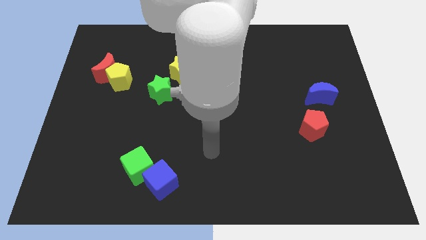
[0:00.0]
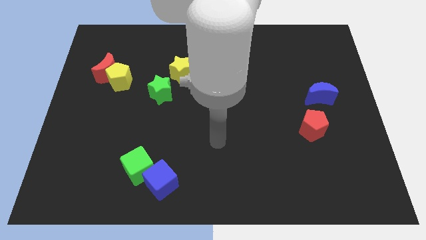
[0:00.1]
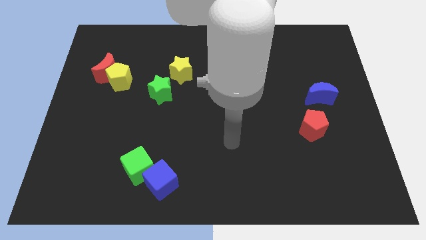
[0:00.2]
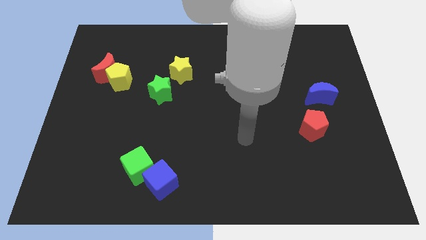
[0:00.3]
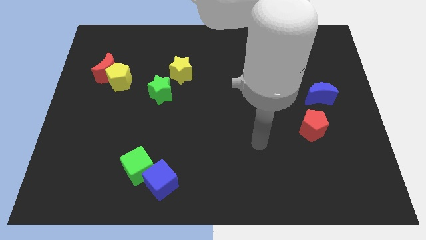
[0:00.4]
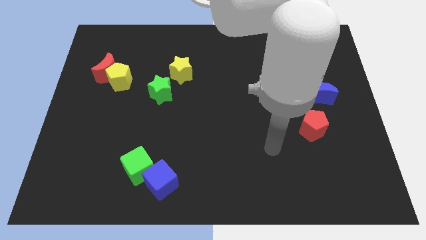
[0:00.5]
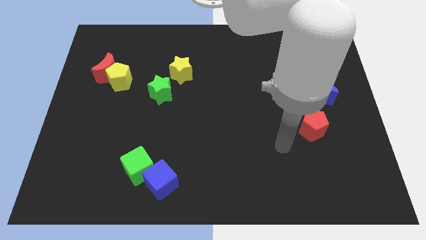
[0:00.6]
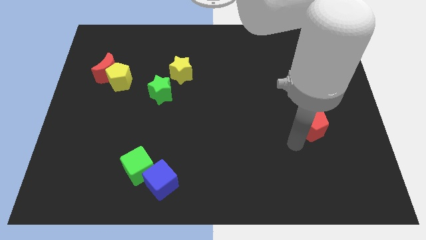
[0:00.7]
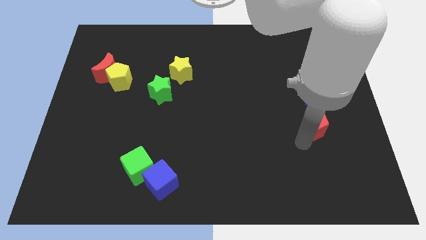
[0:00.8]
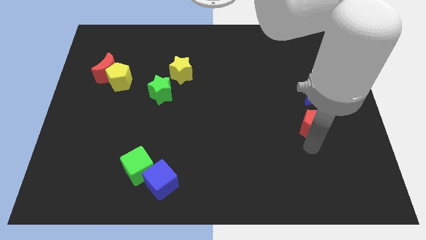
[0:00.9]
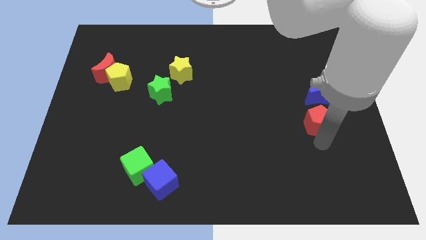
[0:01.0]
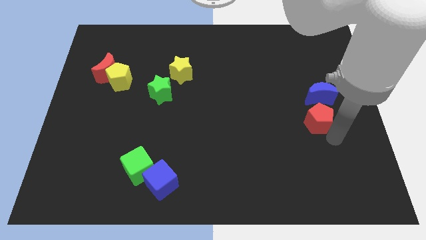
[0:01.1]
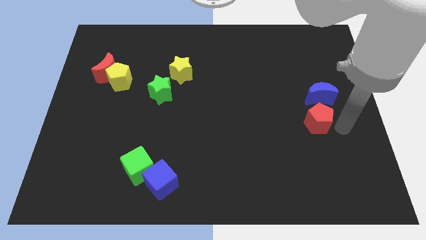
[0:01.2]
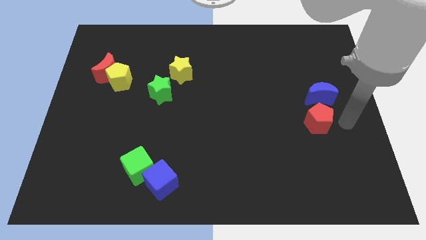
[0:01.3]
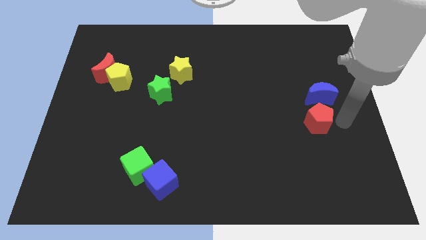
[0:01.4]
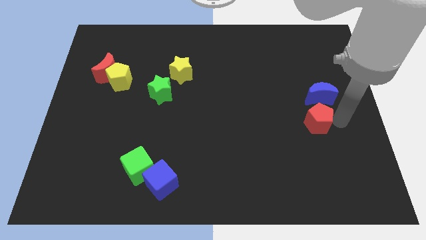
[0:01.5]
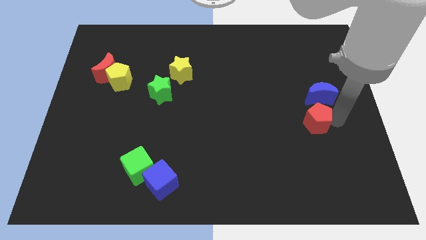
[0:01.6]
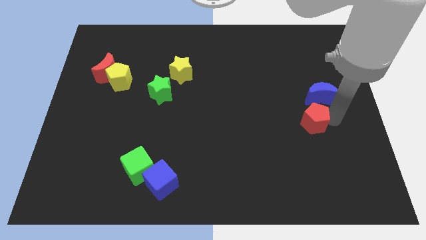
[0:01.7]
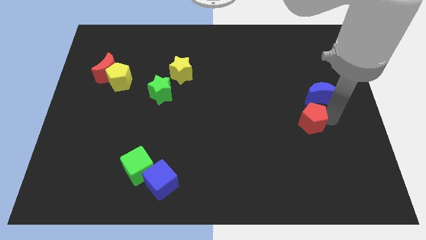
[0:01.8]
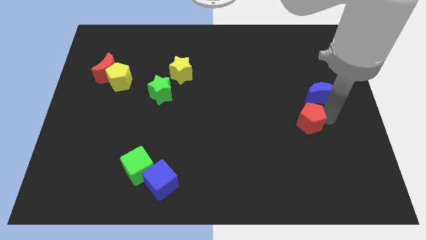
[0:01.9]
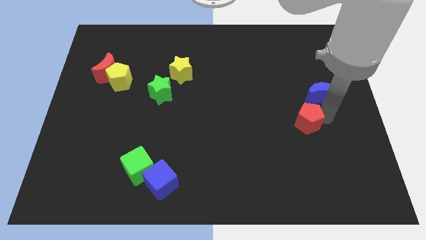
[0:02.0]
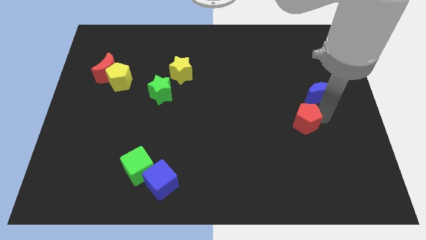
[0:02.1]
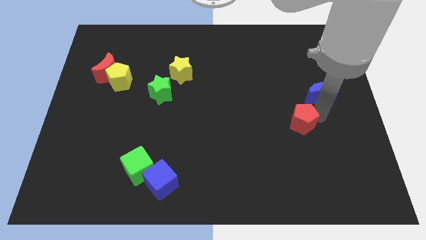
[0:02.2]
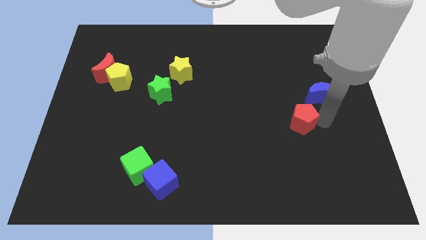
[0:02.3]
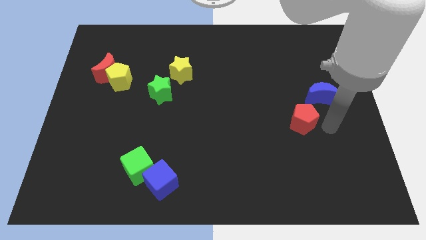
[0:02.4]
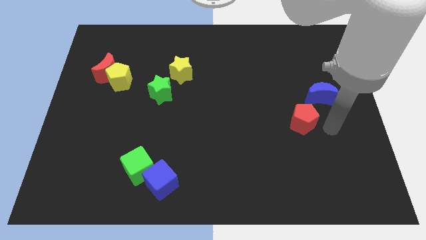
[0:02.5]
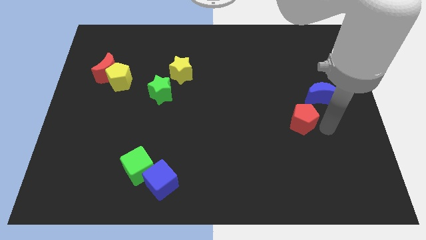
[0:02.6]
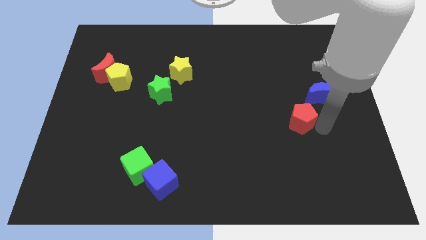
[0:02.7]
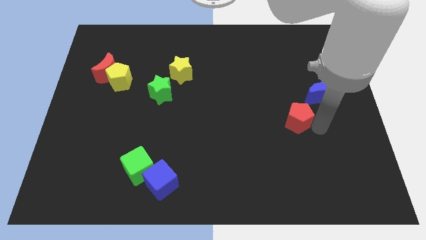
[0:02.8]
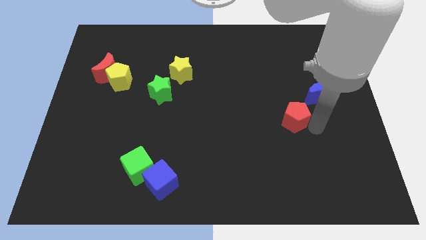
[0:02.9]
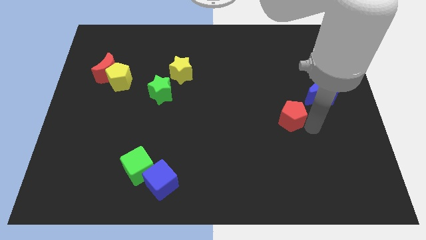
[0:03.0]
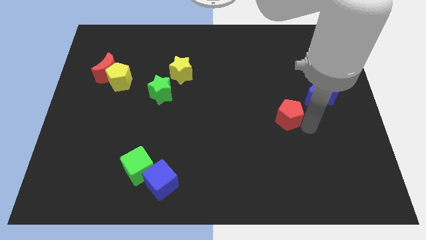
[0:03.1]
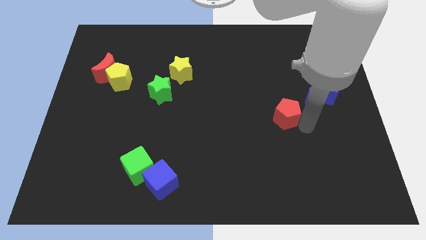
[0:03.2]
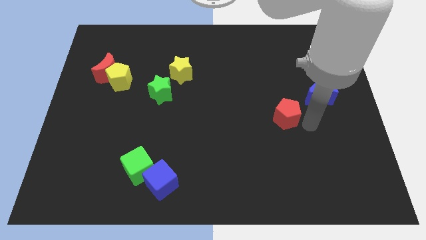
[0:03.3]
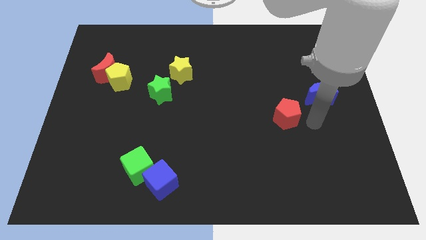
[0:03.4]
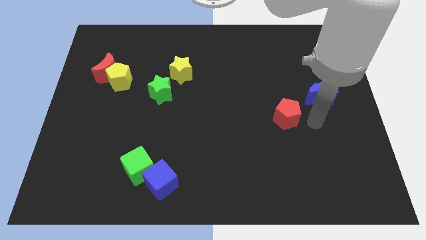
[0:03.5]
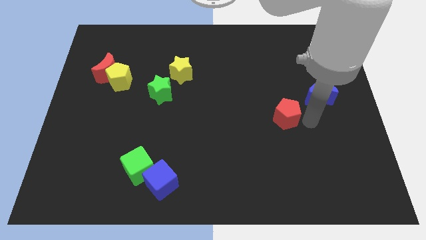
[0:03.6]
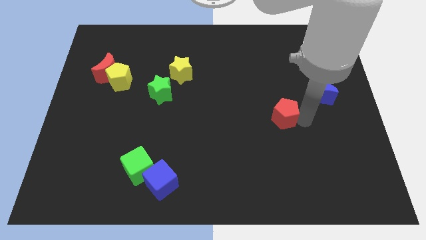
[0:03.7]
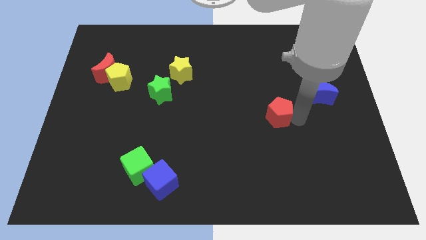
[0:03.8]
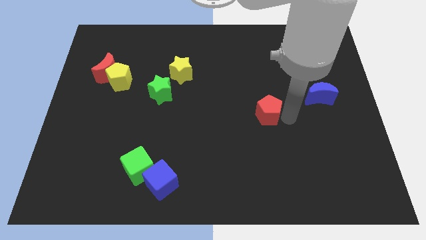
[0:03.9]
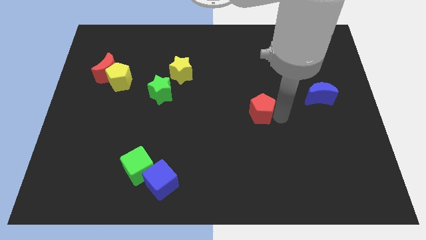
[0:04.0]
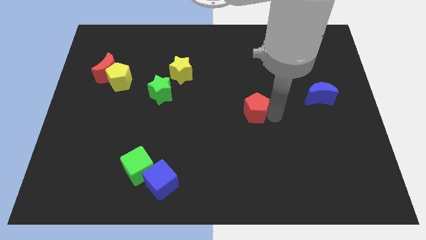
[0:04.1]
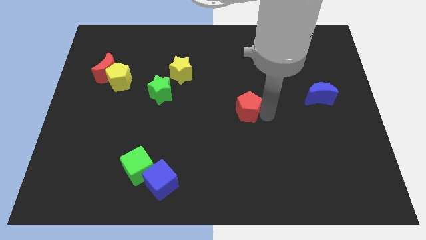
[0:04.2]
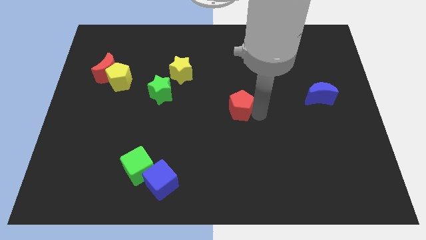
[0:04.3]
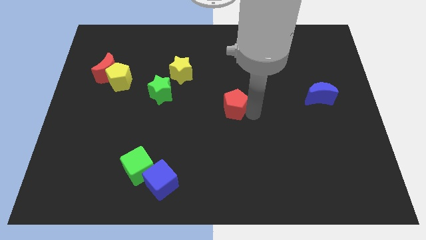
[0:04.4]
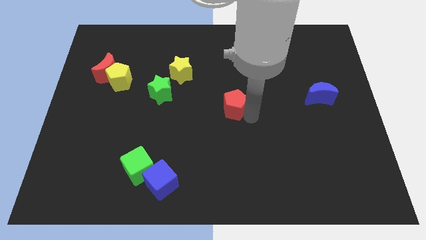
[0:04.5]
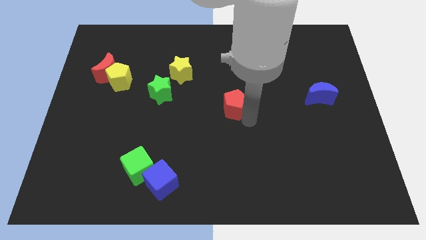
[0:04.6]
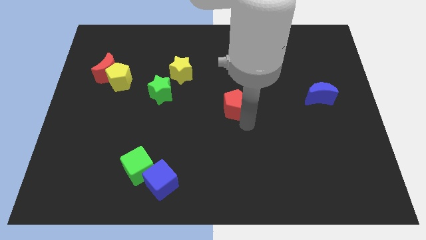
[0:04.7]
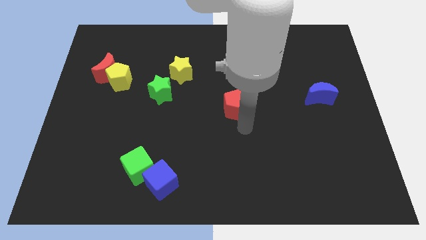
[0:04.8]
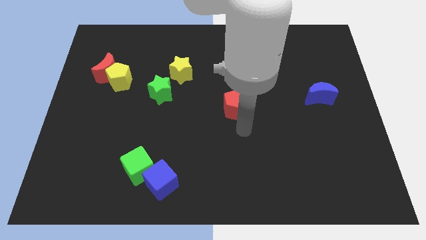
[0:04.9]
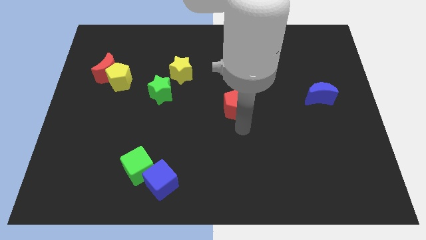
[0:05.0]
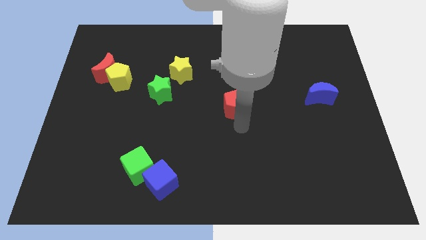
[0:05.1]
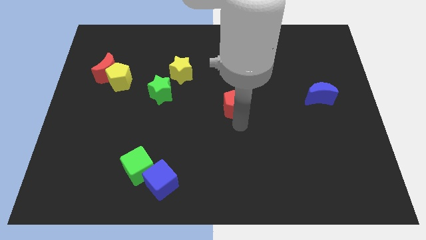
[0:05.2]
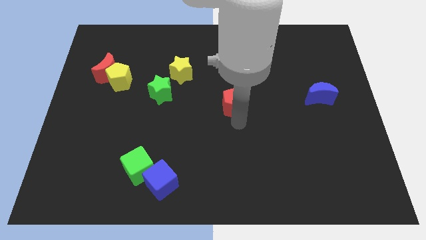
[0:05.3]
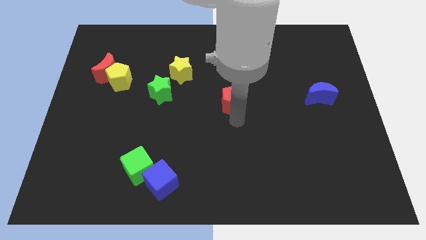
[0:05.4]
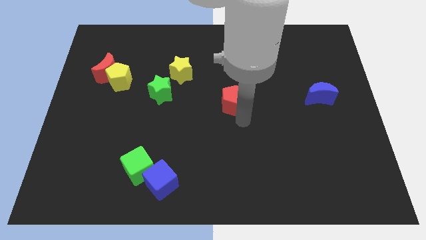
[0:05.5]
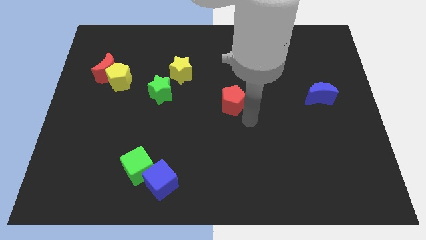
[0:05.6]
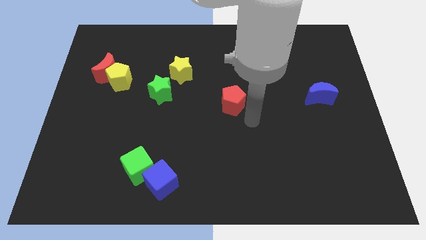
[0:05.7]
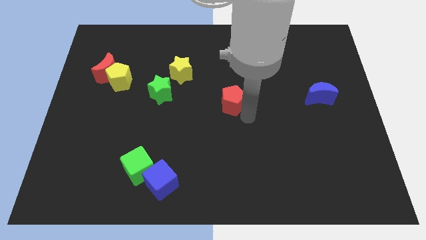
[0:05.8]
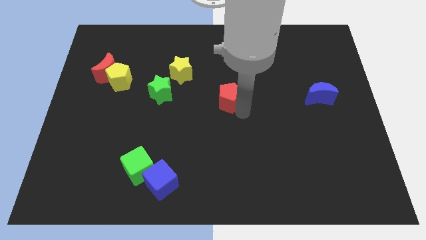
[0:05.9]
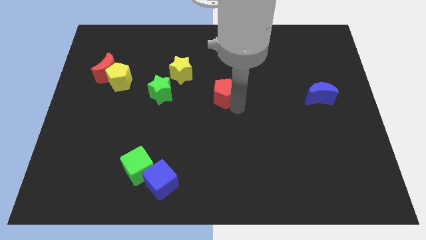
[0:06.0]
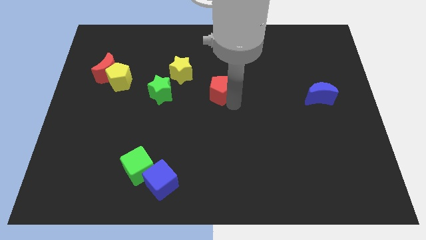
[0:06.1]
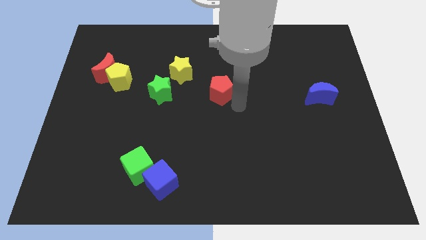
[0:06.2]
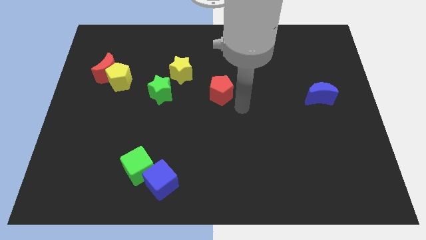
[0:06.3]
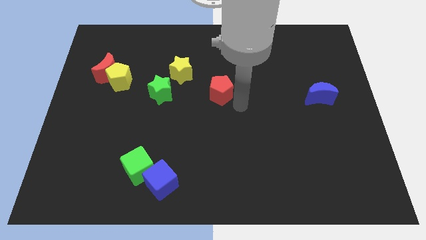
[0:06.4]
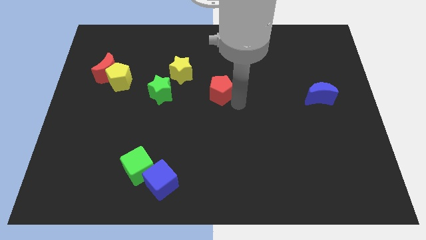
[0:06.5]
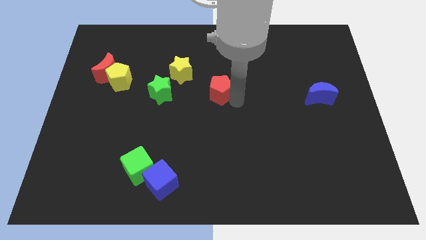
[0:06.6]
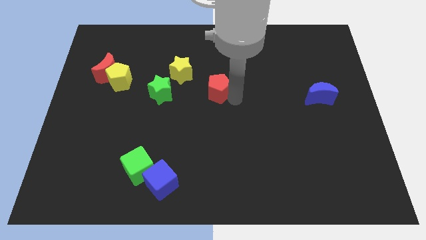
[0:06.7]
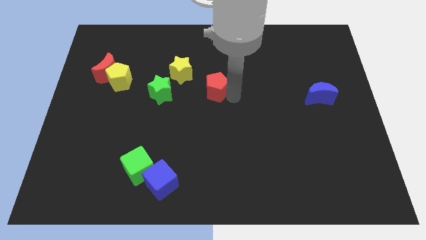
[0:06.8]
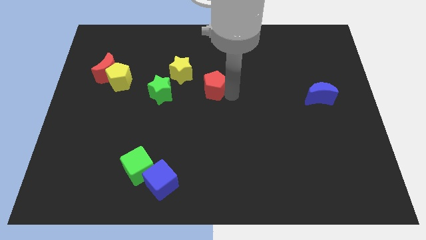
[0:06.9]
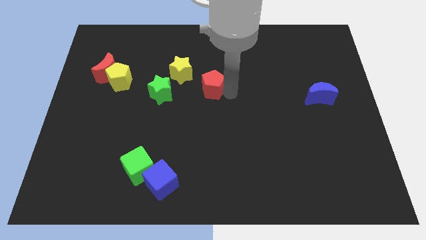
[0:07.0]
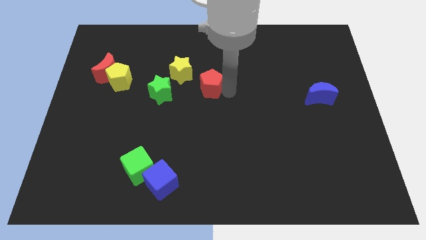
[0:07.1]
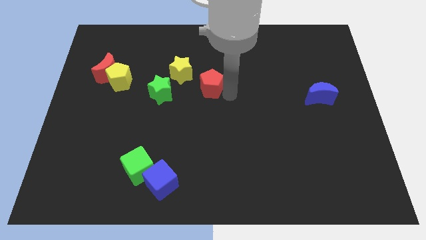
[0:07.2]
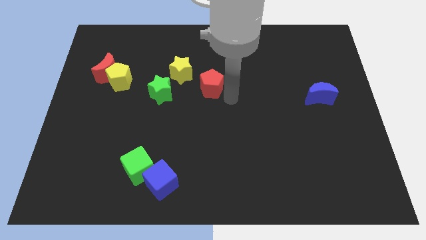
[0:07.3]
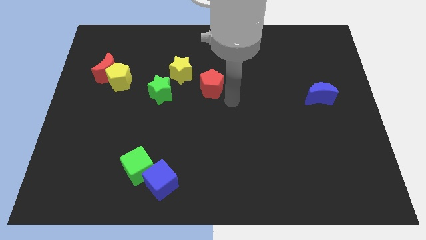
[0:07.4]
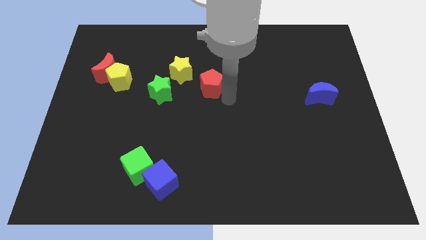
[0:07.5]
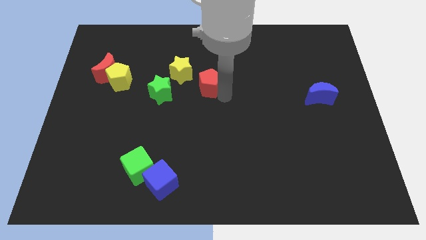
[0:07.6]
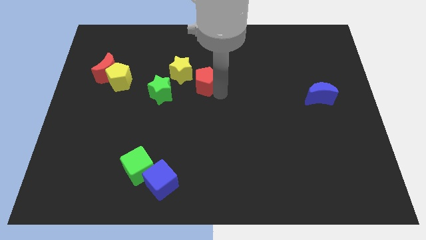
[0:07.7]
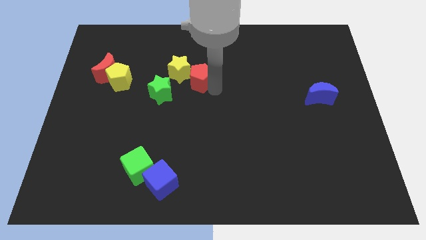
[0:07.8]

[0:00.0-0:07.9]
push the red pentagon to the yellow star
